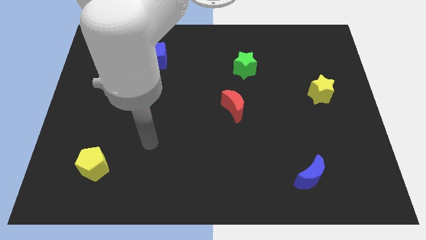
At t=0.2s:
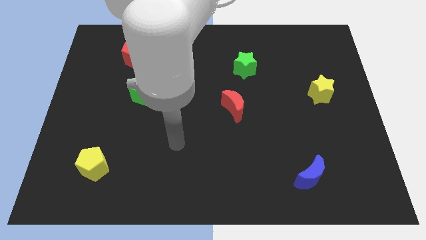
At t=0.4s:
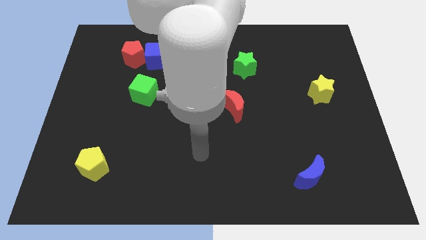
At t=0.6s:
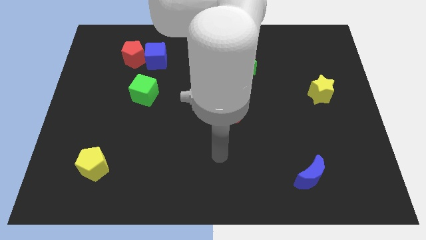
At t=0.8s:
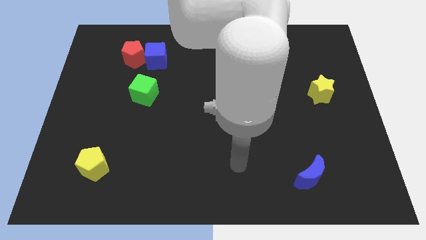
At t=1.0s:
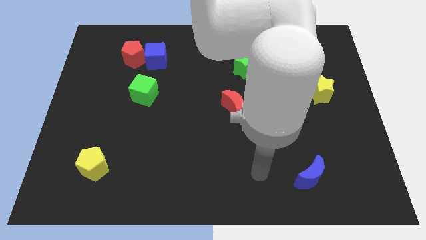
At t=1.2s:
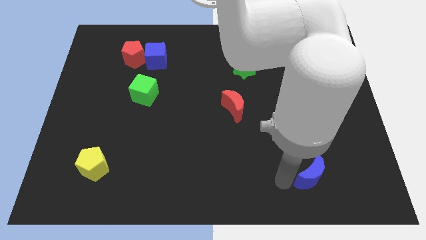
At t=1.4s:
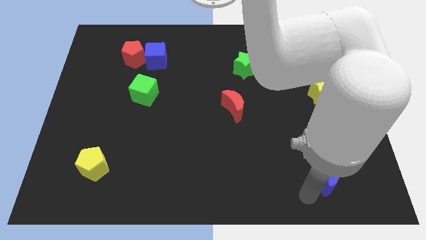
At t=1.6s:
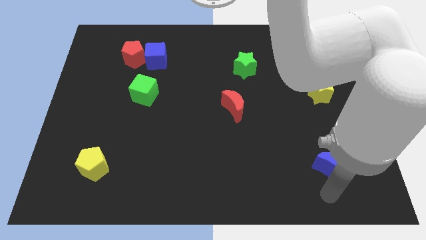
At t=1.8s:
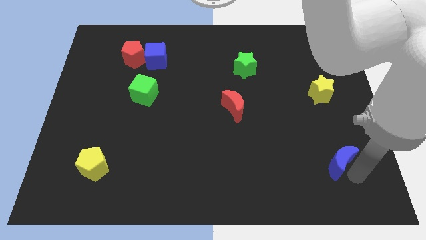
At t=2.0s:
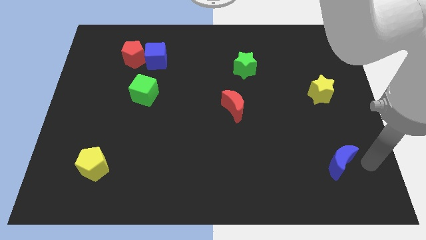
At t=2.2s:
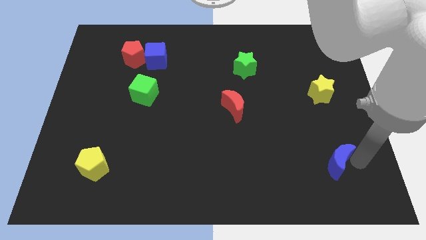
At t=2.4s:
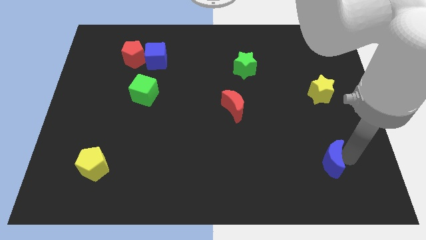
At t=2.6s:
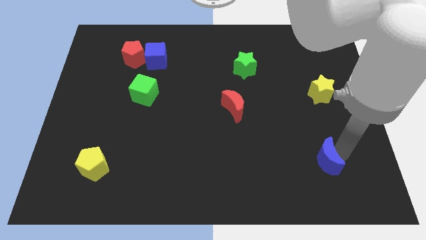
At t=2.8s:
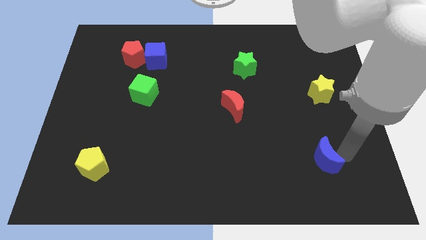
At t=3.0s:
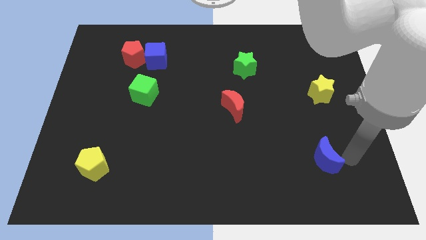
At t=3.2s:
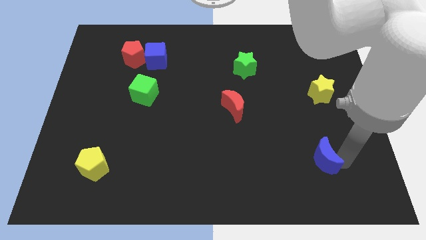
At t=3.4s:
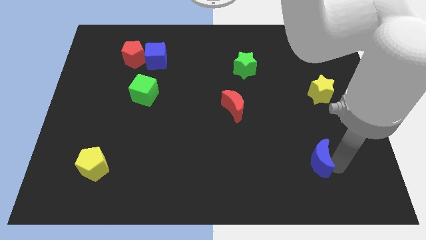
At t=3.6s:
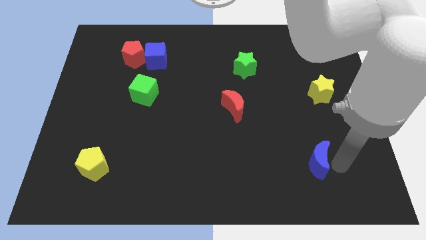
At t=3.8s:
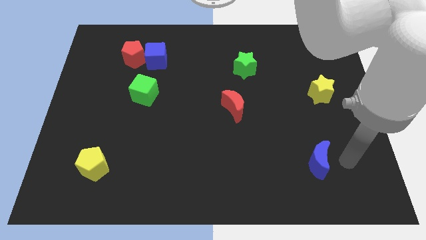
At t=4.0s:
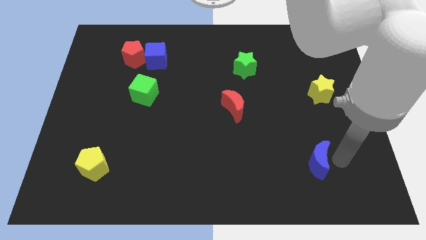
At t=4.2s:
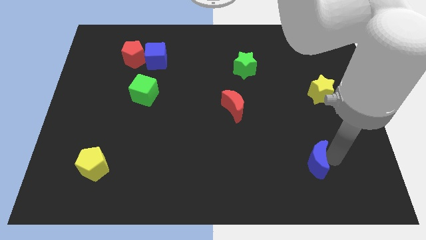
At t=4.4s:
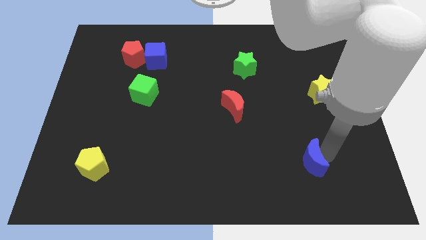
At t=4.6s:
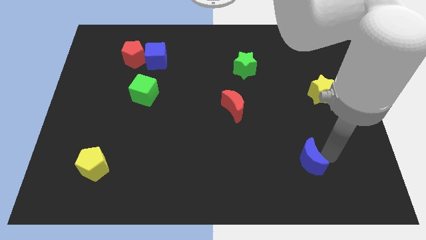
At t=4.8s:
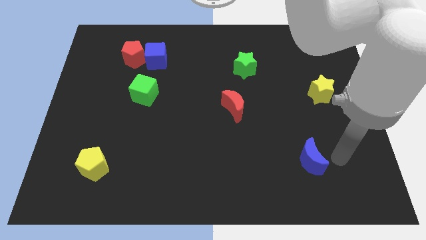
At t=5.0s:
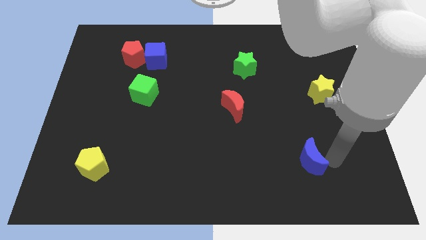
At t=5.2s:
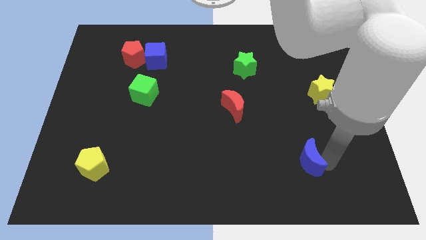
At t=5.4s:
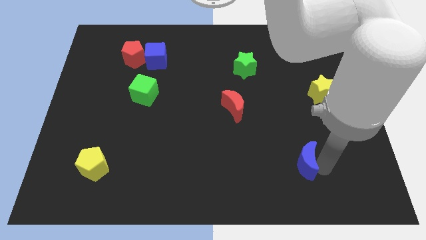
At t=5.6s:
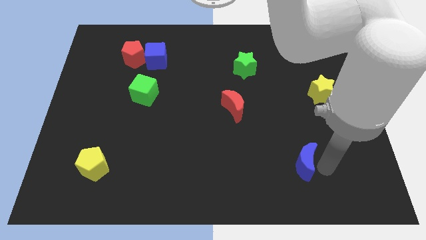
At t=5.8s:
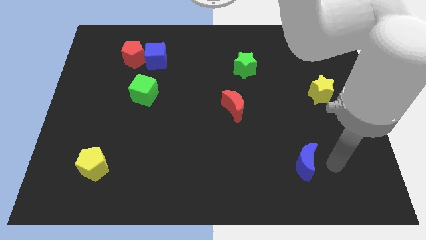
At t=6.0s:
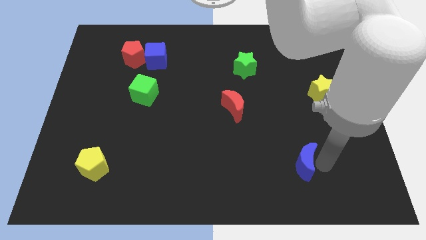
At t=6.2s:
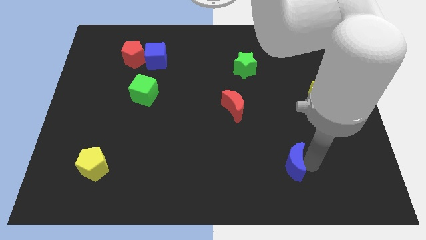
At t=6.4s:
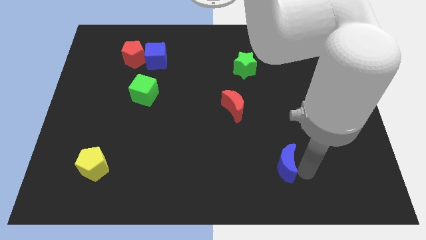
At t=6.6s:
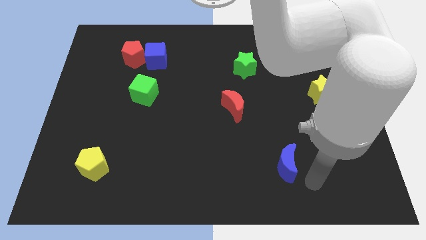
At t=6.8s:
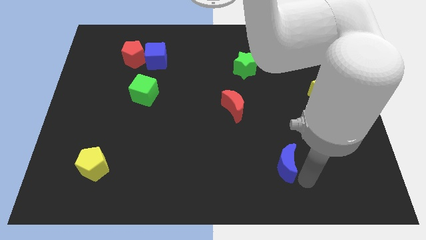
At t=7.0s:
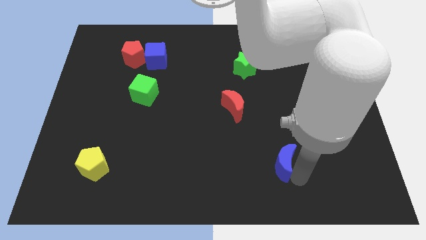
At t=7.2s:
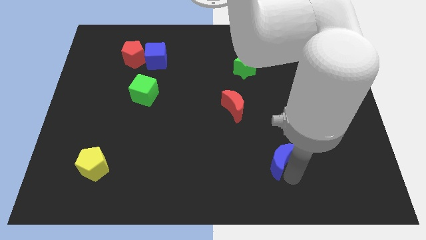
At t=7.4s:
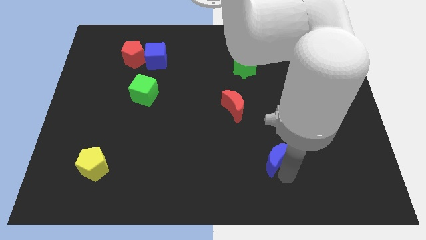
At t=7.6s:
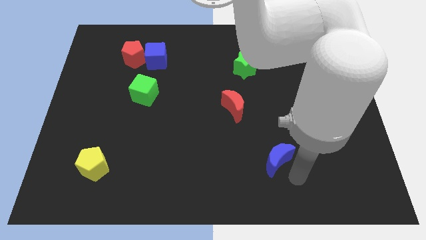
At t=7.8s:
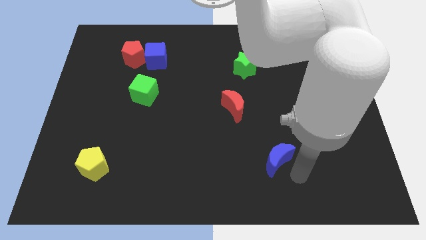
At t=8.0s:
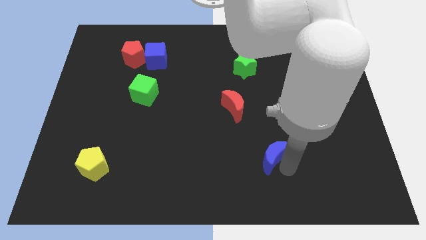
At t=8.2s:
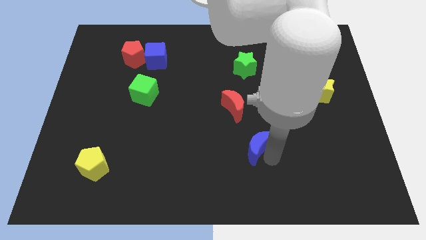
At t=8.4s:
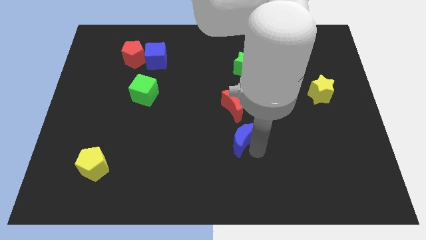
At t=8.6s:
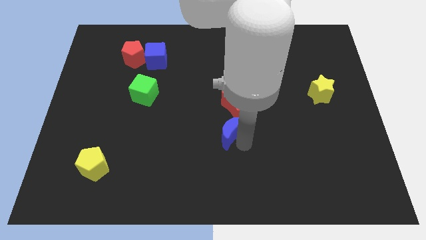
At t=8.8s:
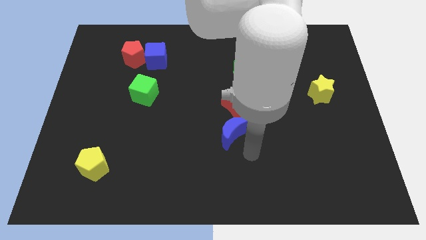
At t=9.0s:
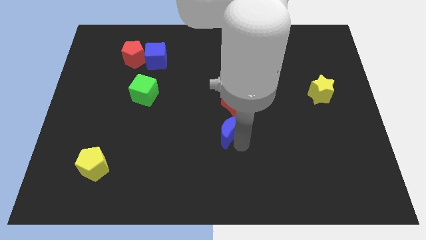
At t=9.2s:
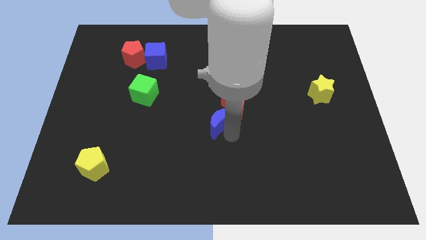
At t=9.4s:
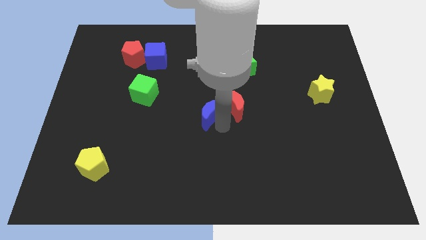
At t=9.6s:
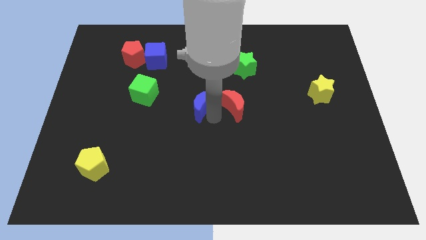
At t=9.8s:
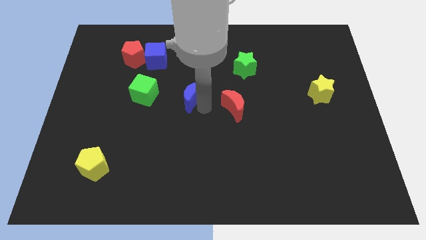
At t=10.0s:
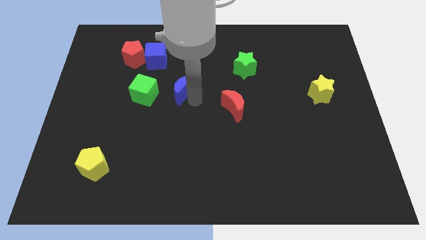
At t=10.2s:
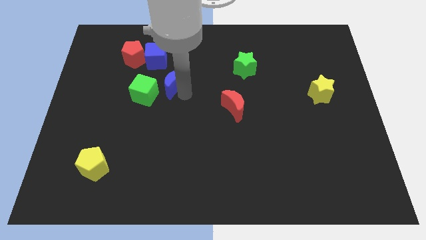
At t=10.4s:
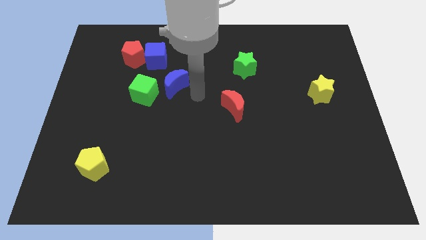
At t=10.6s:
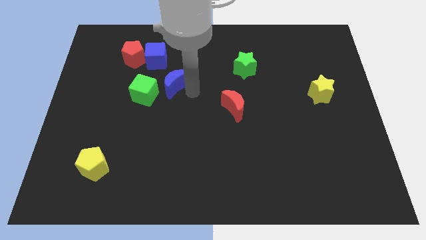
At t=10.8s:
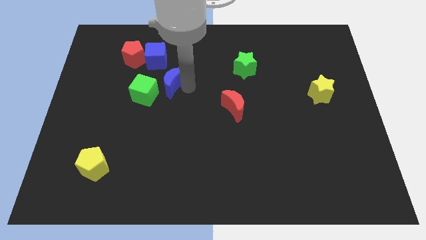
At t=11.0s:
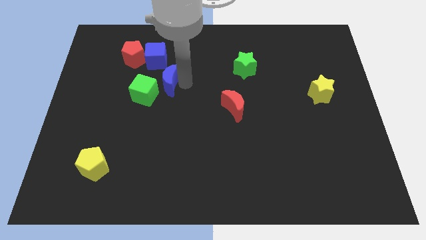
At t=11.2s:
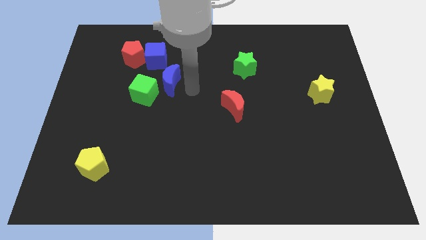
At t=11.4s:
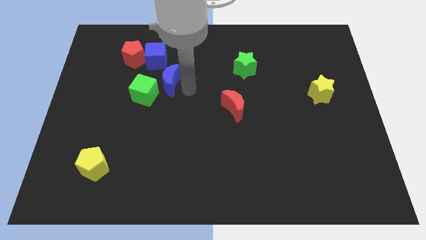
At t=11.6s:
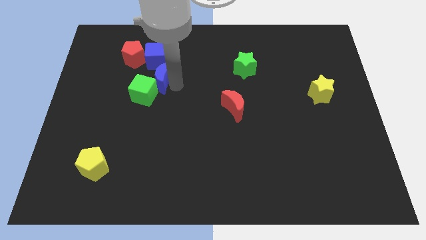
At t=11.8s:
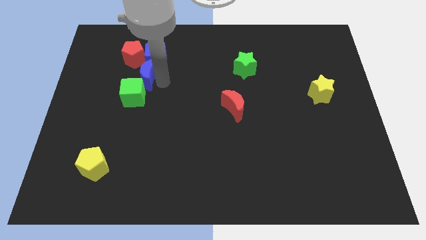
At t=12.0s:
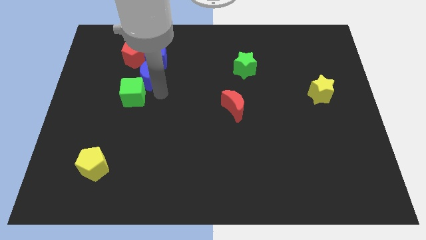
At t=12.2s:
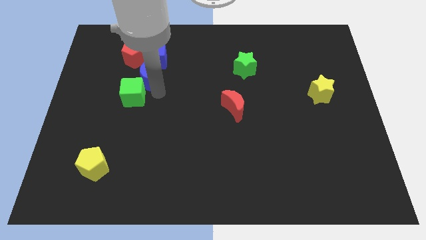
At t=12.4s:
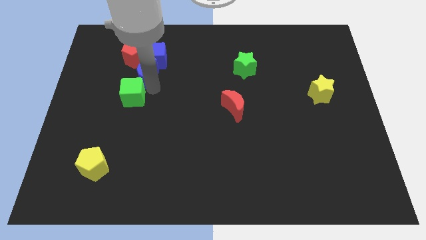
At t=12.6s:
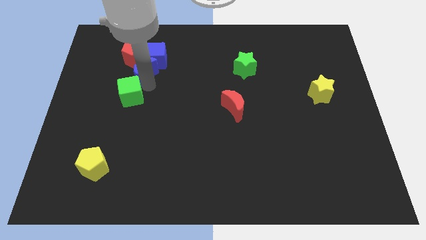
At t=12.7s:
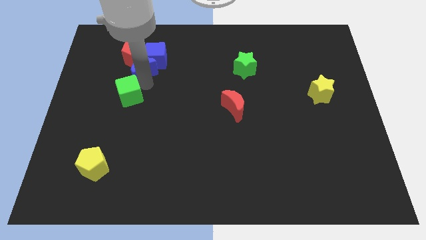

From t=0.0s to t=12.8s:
push the blue moon towards the red pentagon

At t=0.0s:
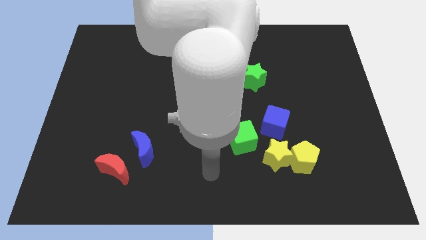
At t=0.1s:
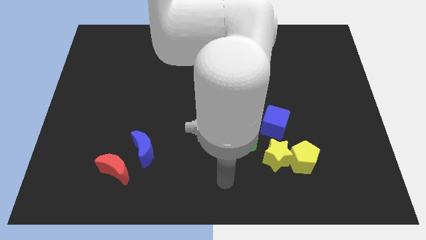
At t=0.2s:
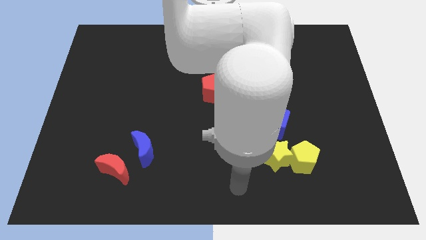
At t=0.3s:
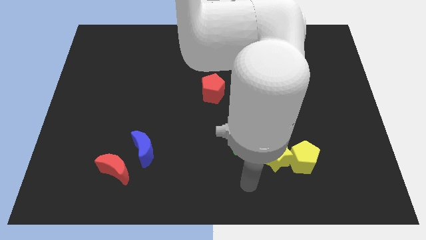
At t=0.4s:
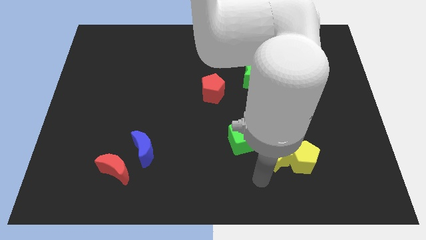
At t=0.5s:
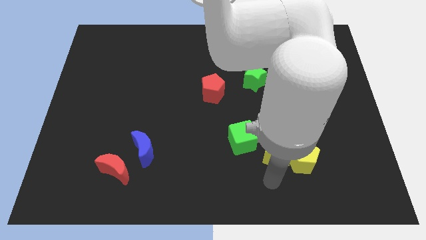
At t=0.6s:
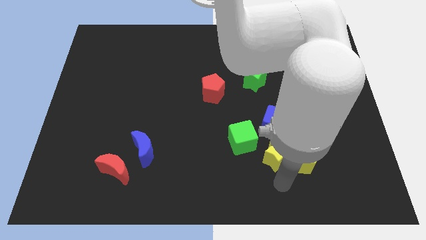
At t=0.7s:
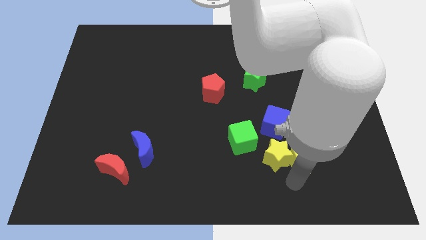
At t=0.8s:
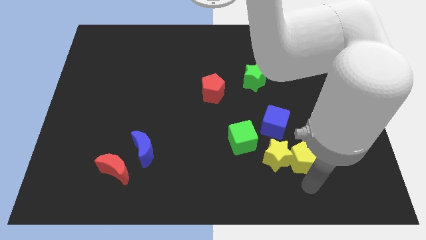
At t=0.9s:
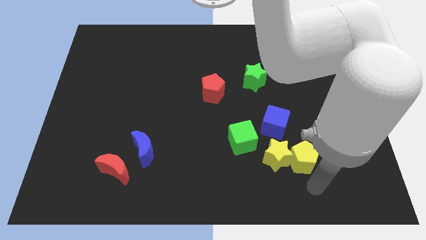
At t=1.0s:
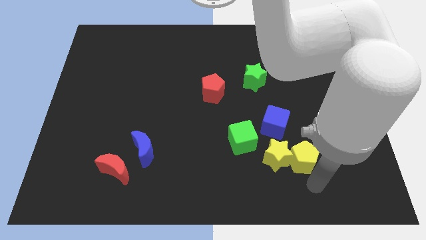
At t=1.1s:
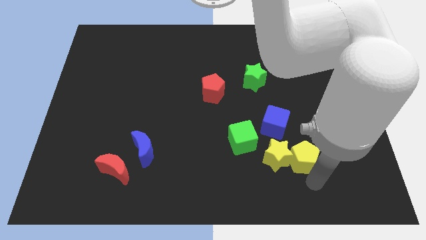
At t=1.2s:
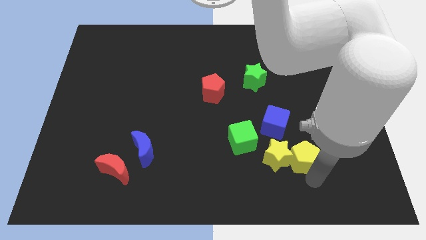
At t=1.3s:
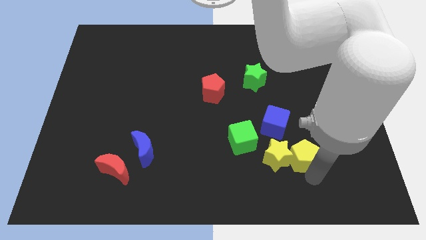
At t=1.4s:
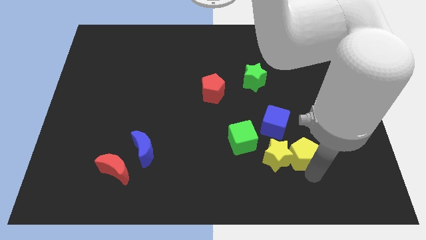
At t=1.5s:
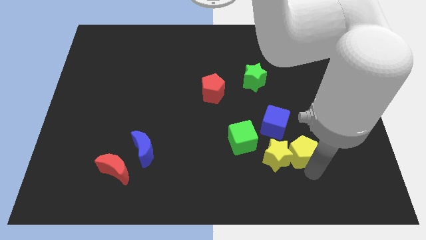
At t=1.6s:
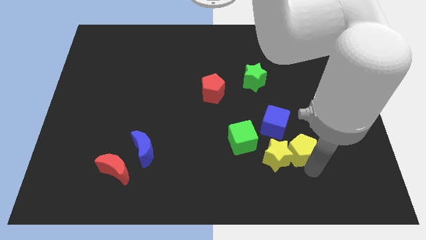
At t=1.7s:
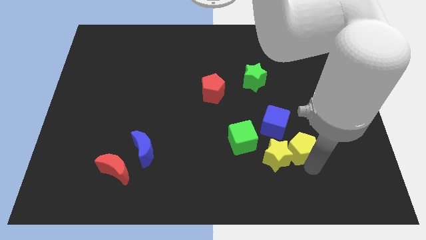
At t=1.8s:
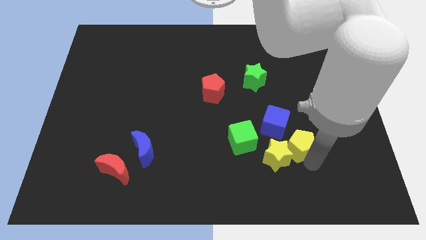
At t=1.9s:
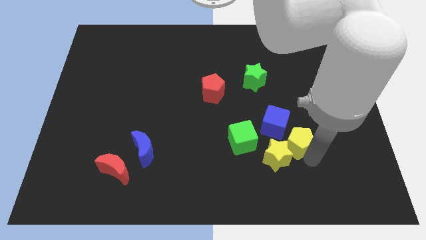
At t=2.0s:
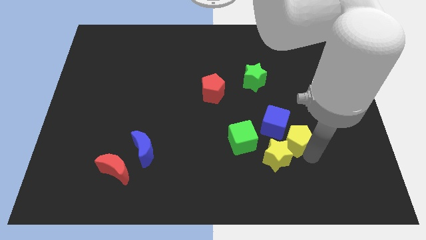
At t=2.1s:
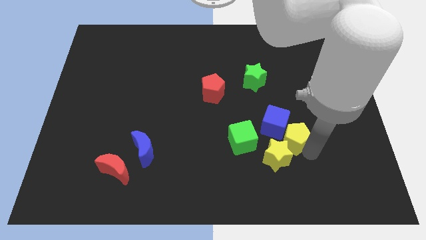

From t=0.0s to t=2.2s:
slide the yellow pentagon next to the blue cube
